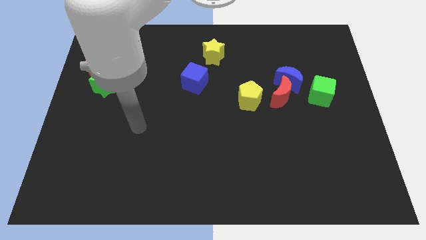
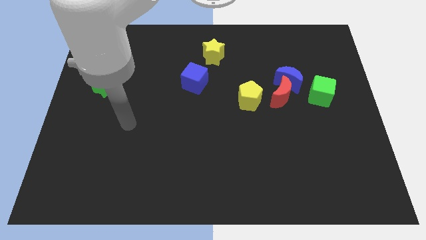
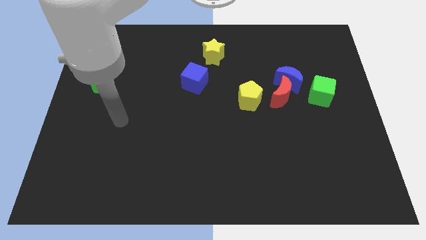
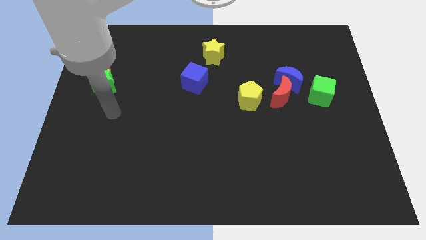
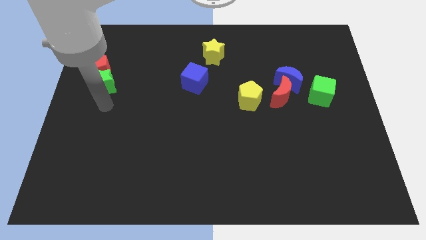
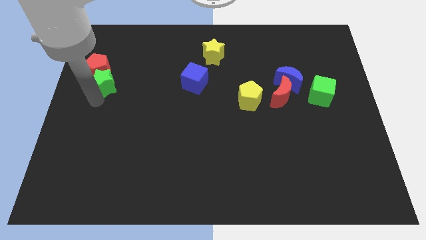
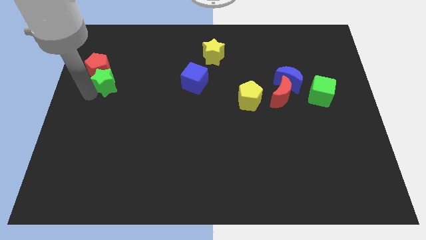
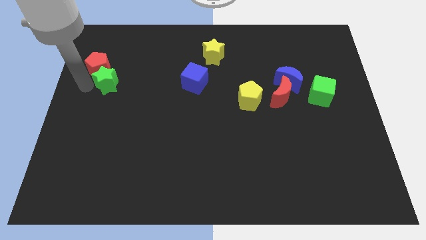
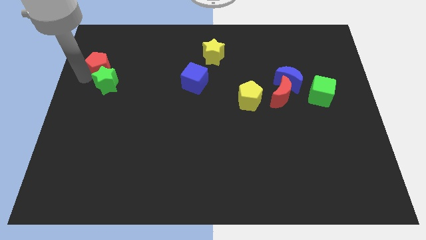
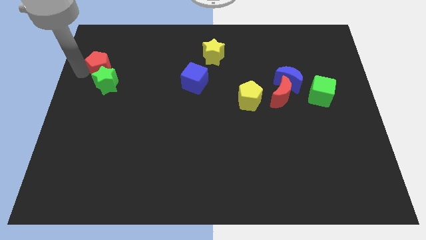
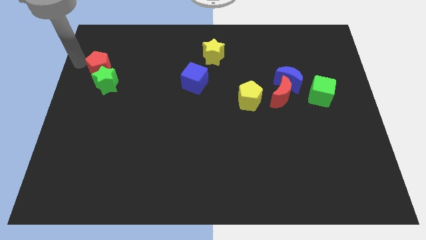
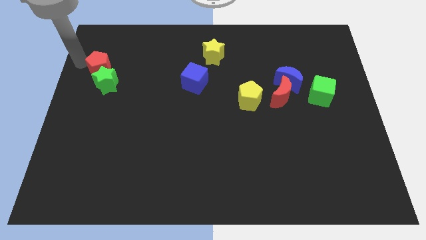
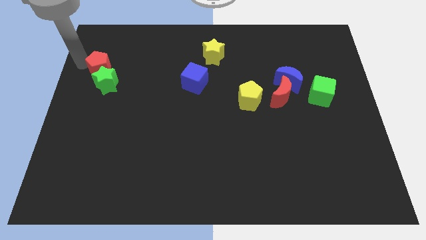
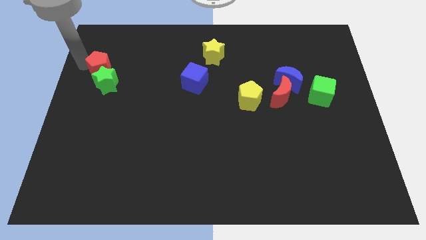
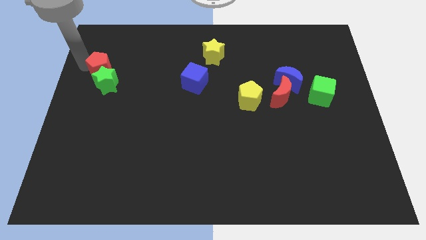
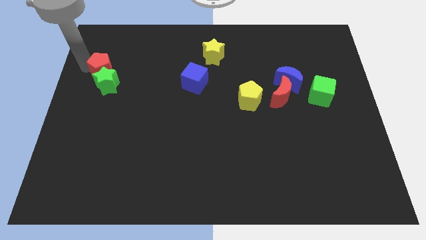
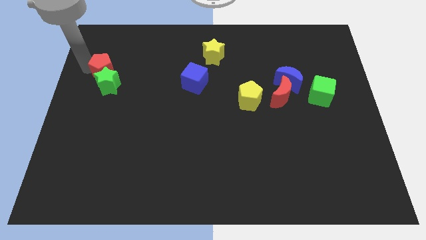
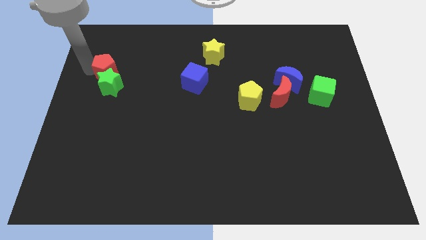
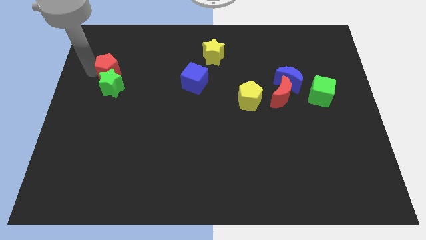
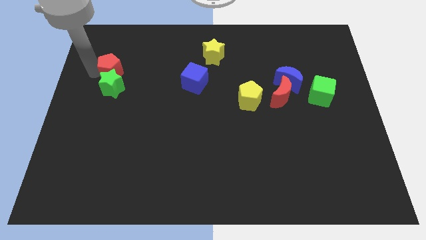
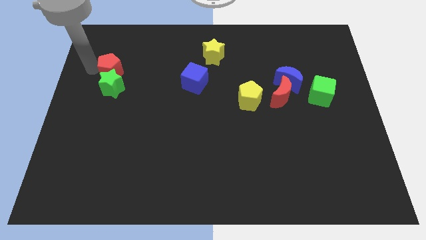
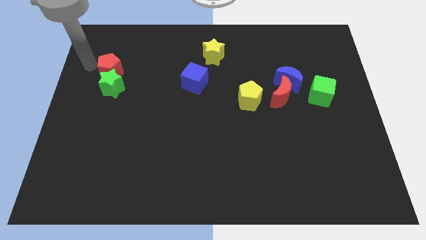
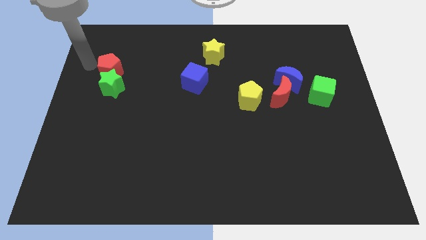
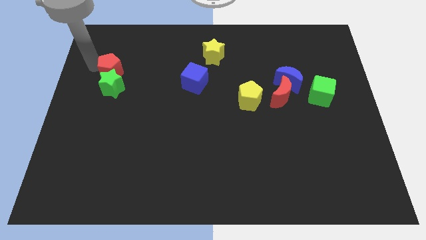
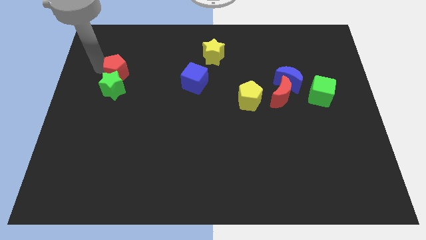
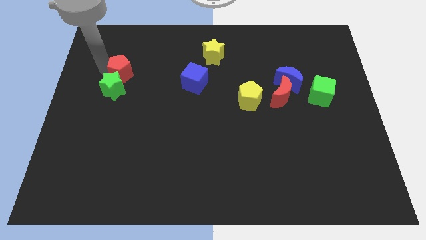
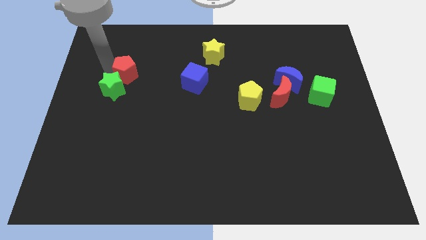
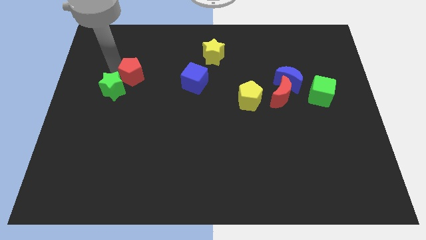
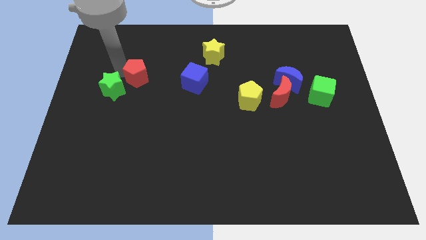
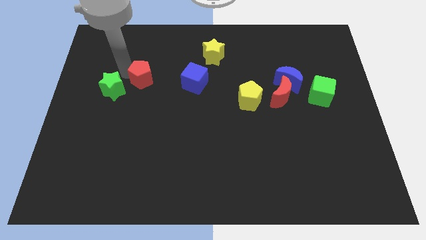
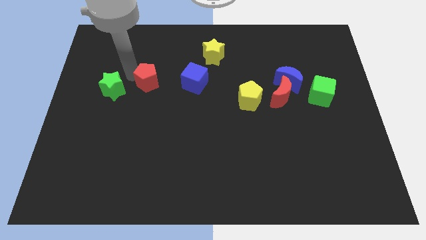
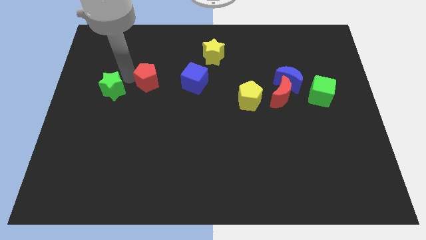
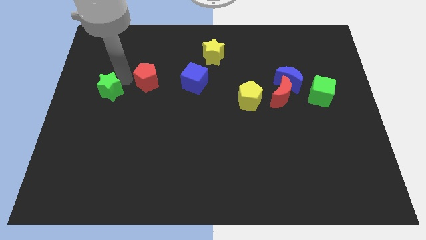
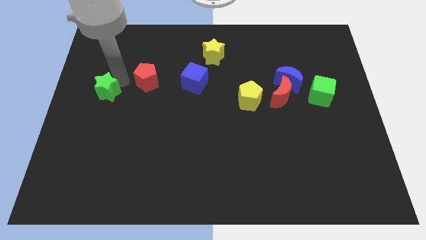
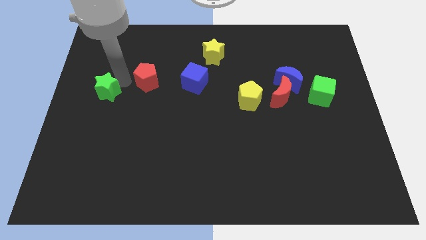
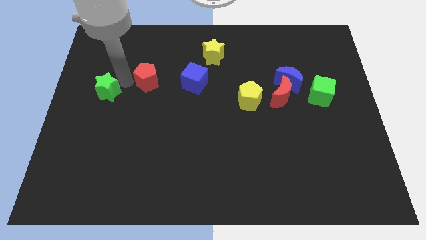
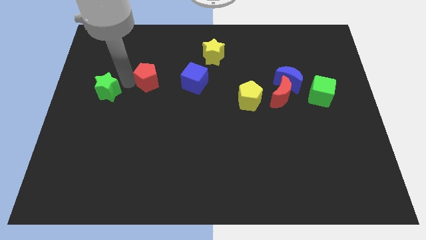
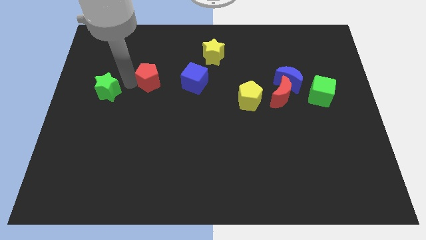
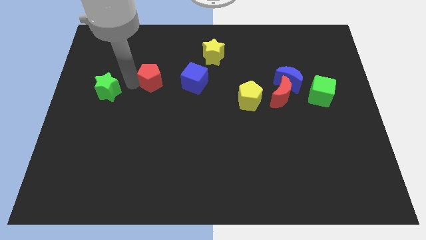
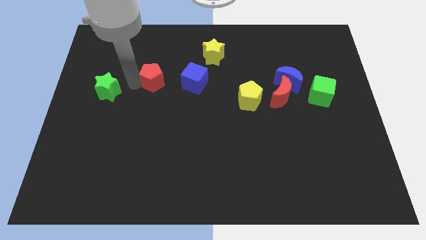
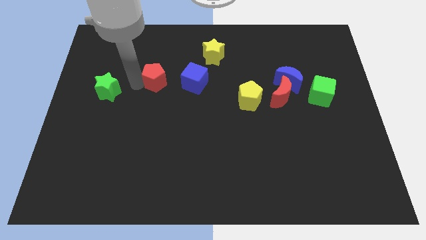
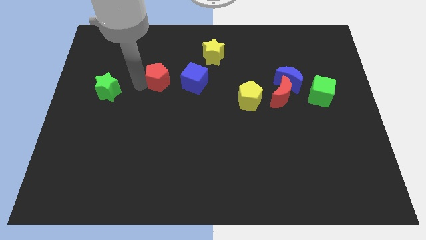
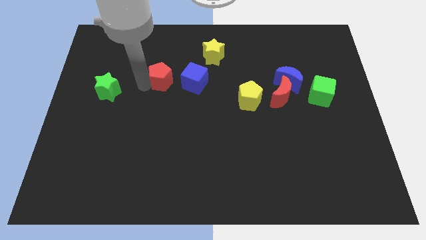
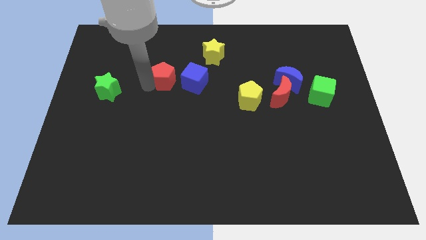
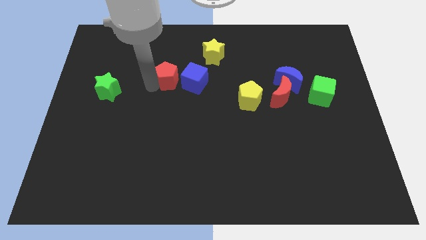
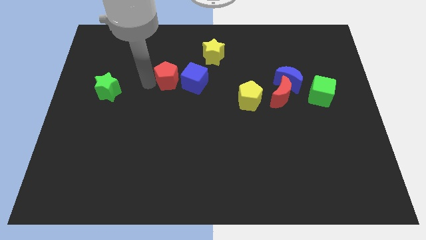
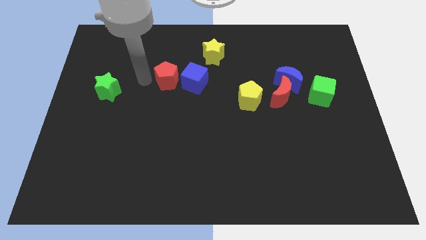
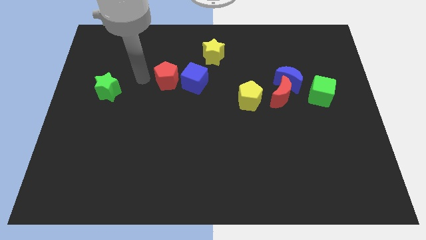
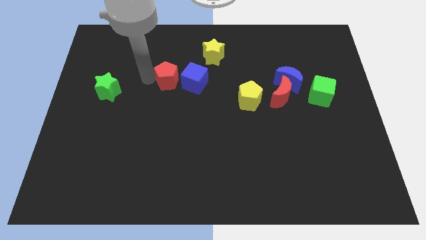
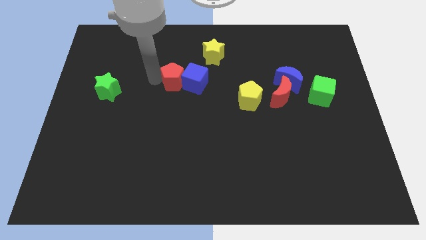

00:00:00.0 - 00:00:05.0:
move the red pentagon close to the blue cube

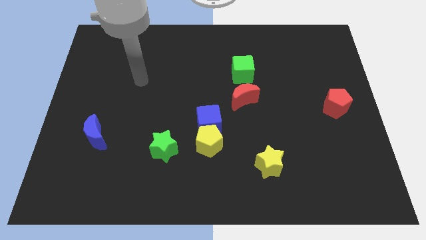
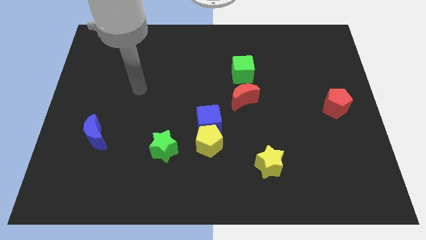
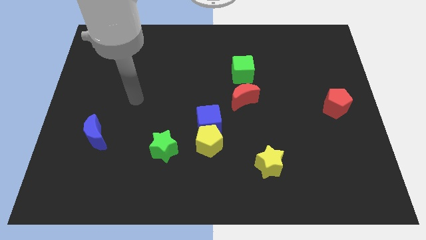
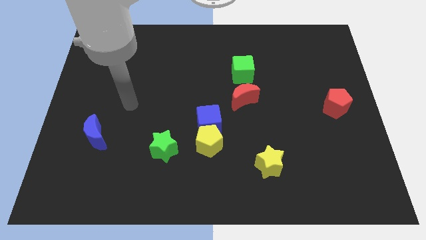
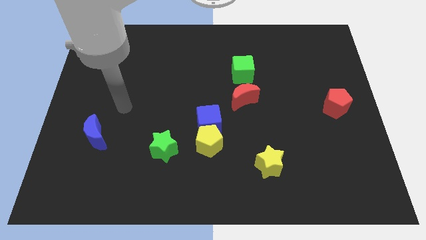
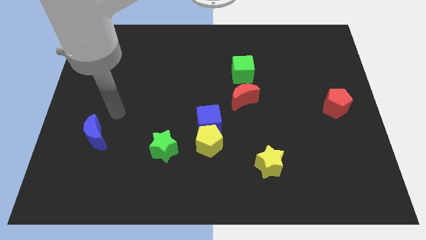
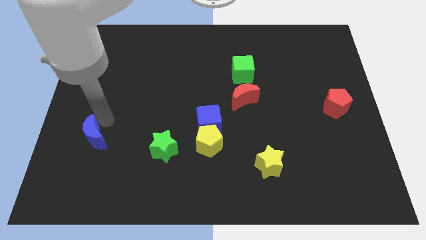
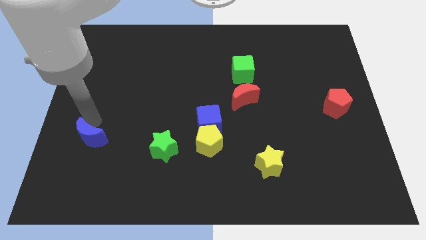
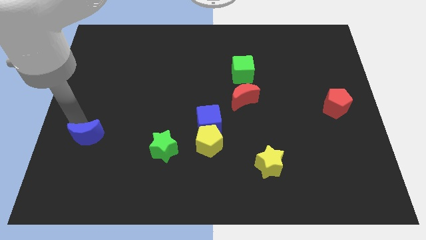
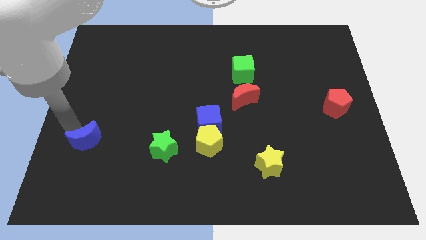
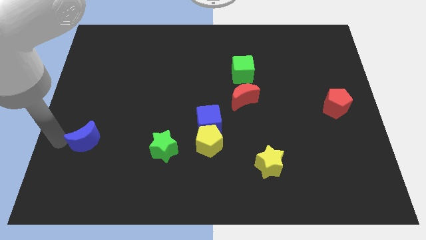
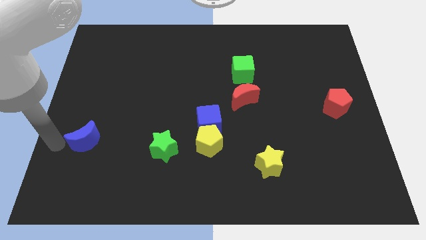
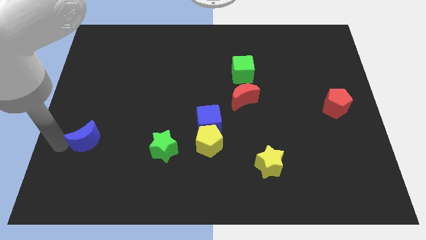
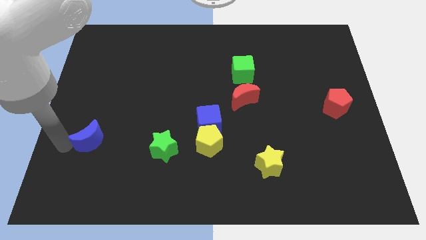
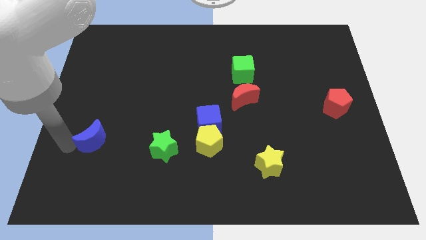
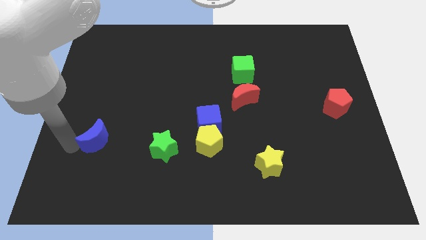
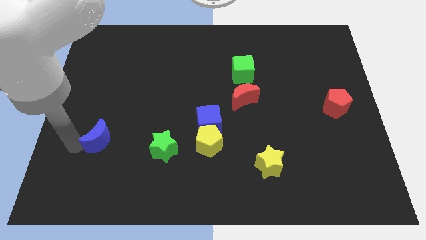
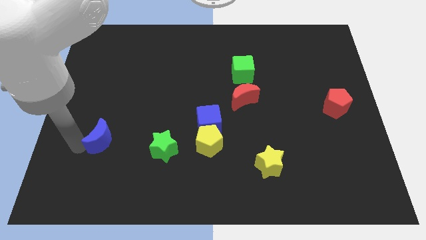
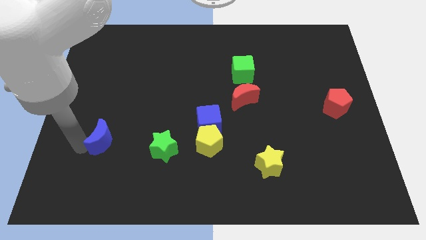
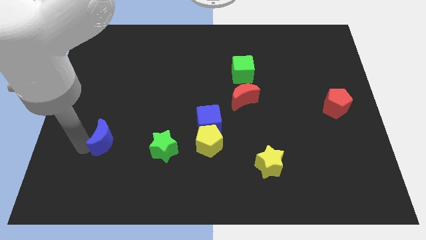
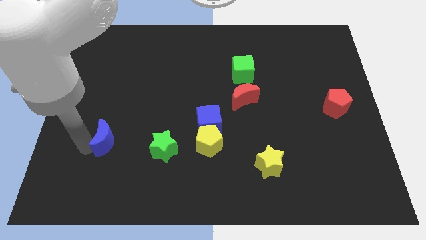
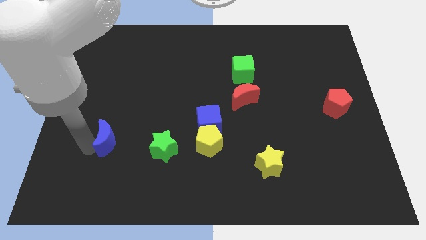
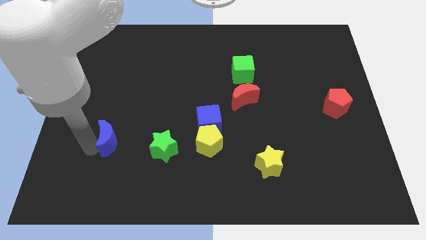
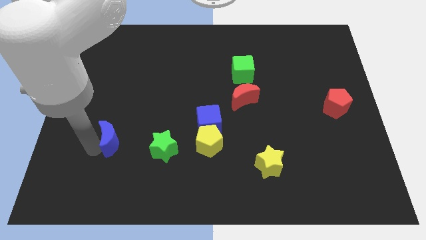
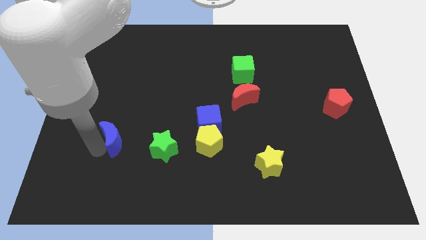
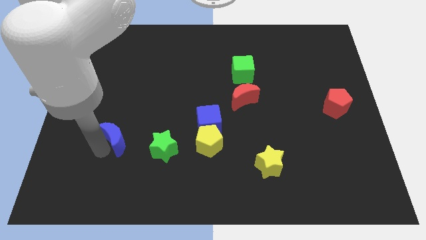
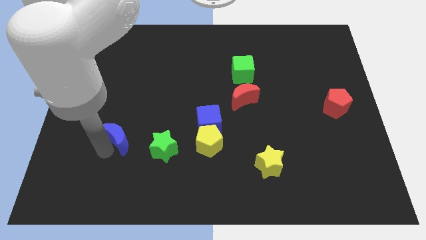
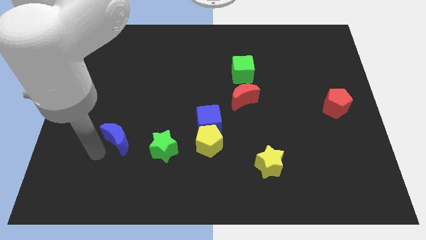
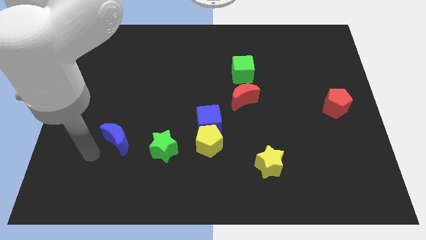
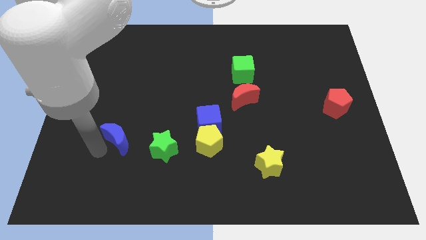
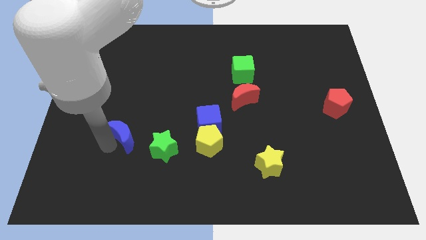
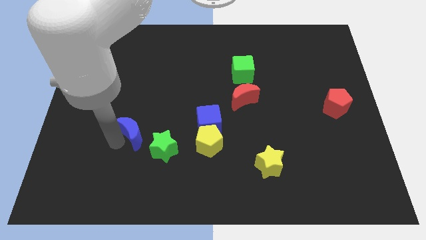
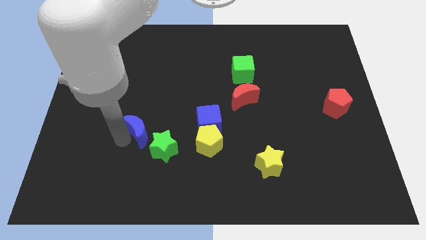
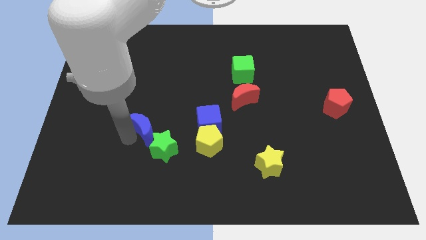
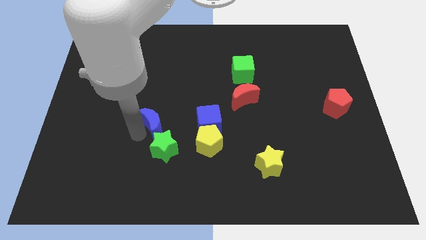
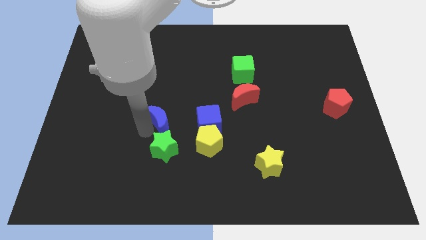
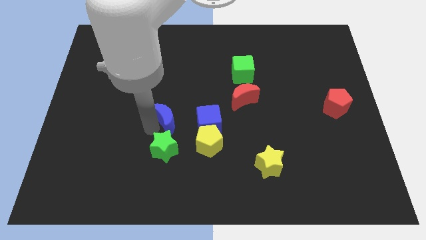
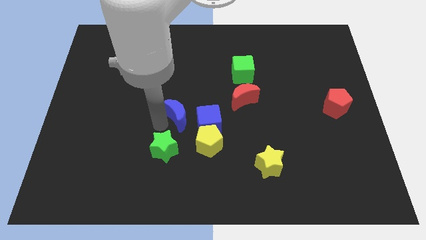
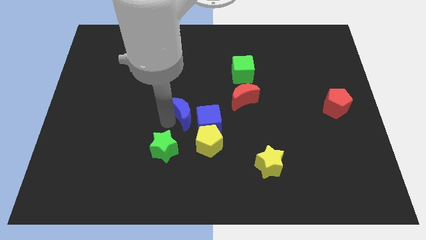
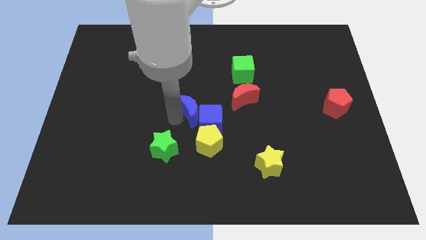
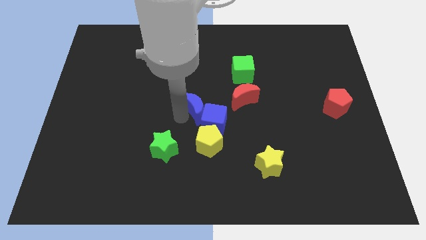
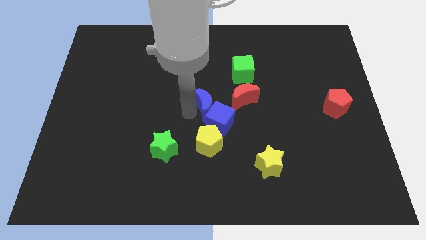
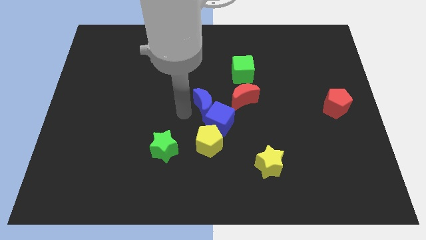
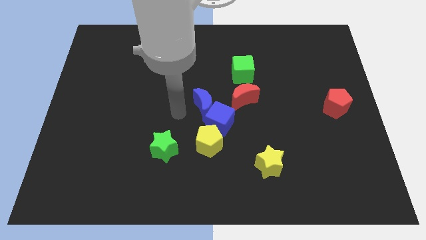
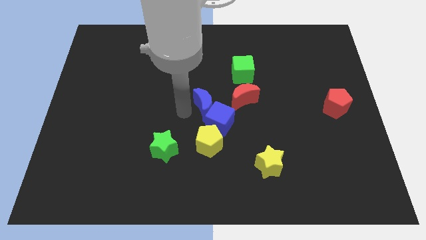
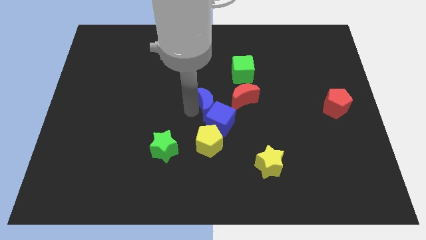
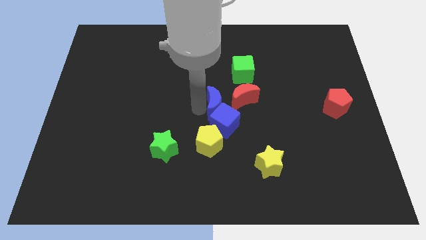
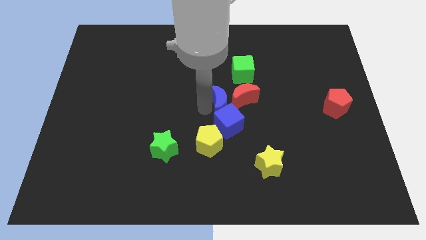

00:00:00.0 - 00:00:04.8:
move the blue moon close to the red moon
